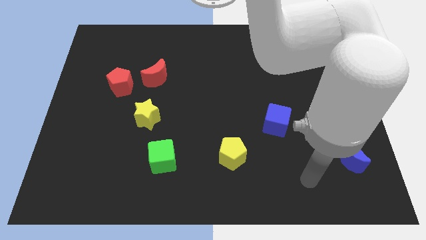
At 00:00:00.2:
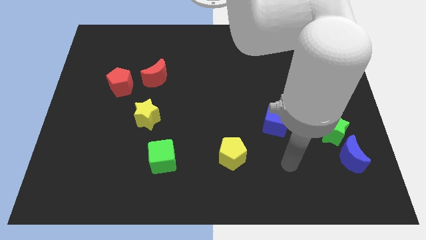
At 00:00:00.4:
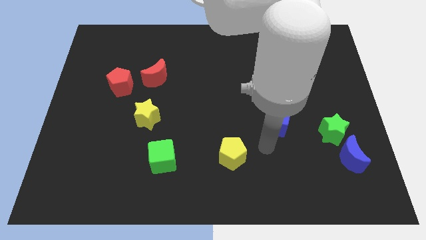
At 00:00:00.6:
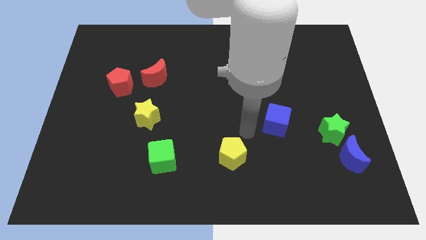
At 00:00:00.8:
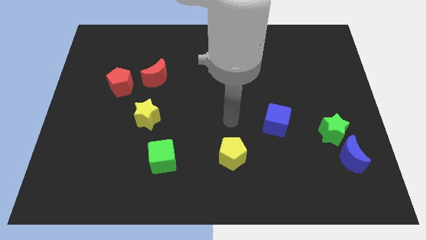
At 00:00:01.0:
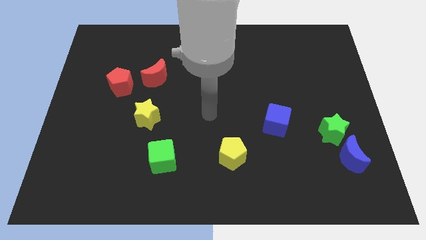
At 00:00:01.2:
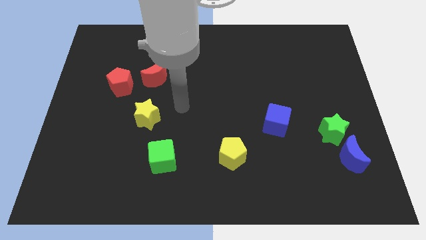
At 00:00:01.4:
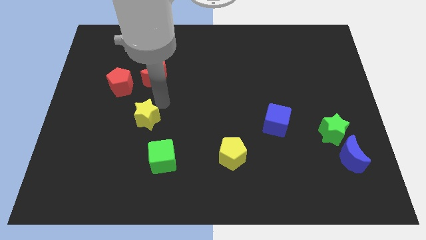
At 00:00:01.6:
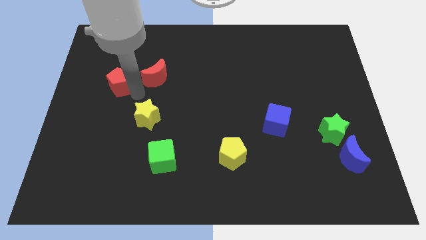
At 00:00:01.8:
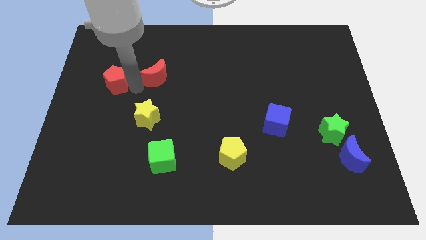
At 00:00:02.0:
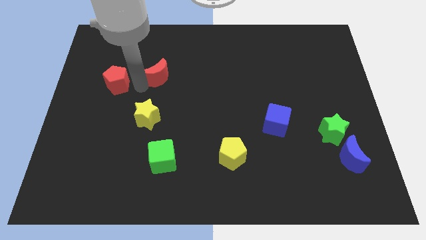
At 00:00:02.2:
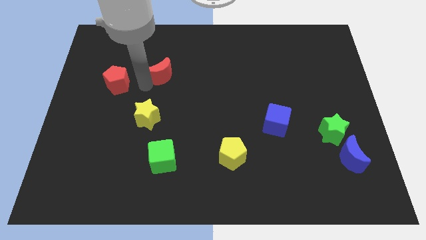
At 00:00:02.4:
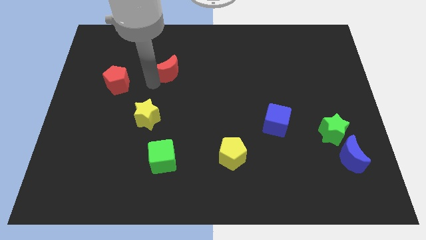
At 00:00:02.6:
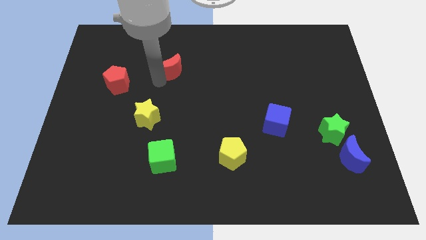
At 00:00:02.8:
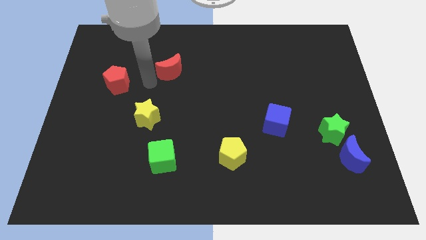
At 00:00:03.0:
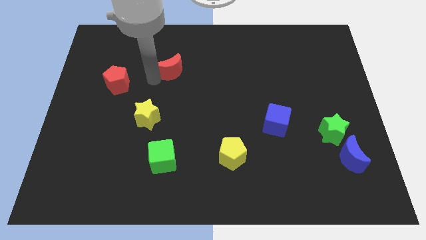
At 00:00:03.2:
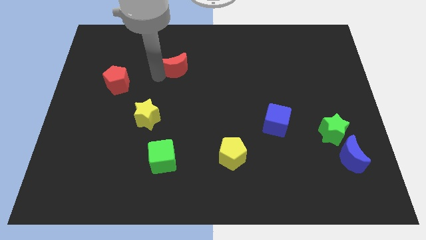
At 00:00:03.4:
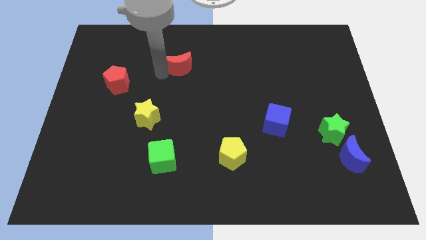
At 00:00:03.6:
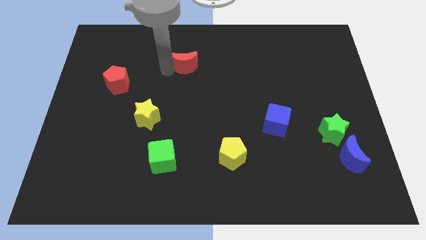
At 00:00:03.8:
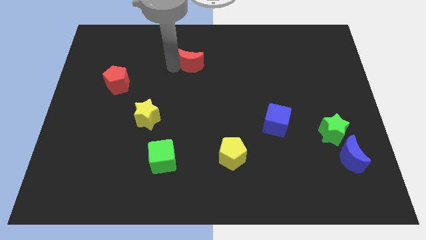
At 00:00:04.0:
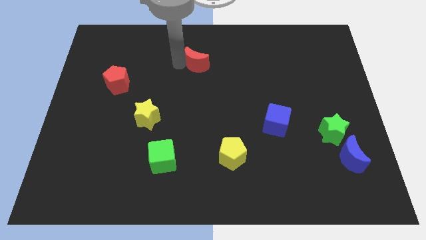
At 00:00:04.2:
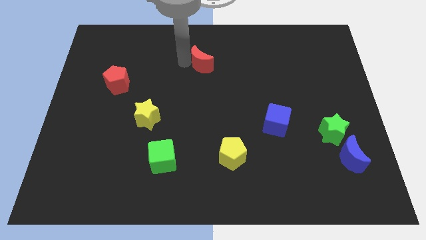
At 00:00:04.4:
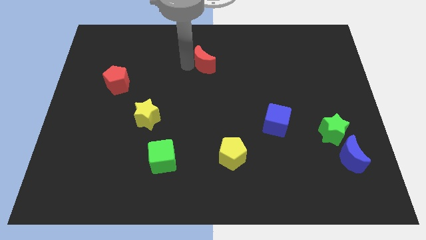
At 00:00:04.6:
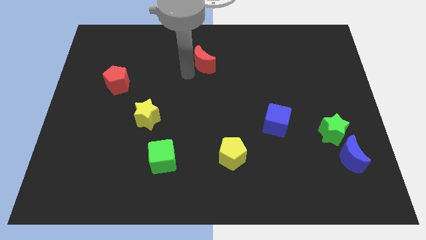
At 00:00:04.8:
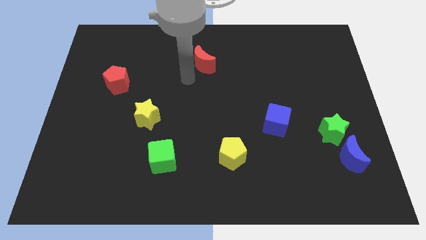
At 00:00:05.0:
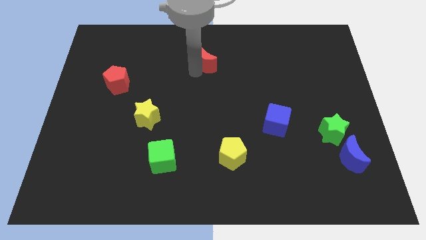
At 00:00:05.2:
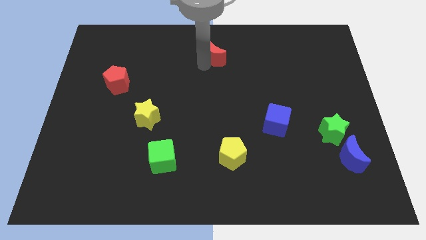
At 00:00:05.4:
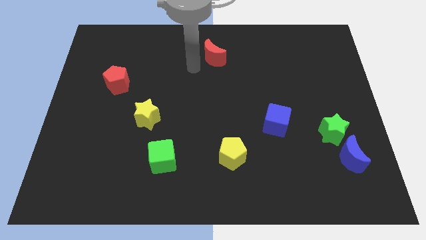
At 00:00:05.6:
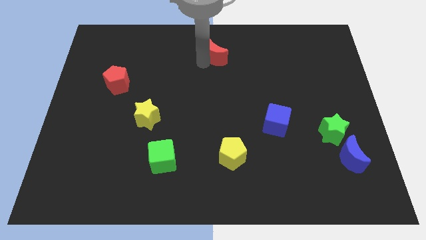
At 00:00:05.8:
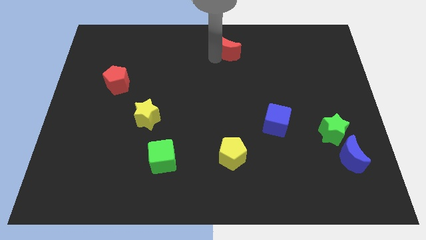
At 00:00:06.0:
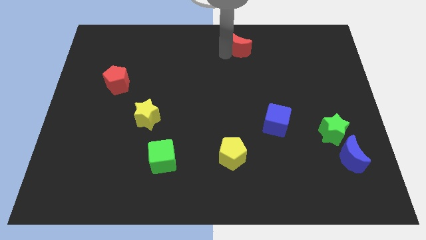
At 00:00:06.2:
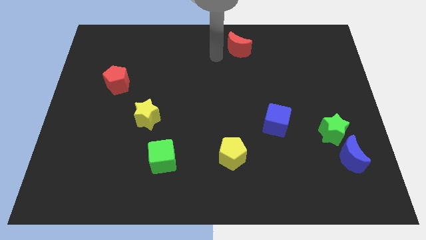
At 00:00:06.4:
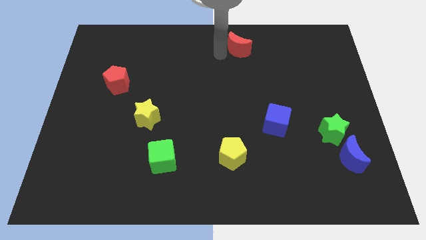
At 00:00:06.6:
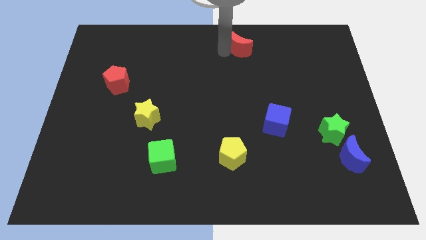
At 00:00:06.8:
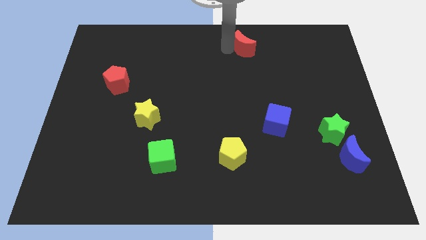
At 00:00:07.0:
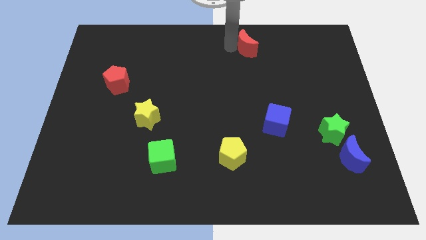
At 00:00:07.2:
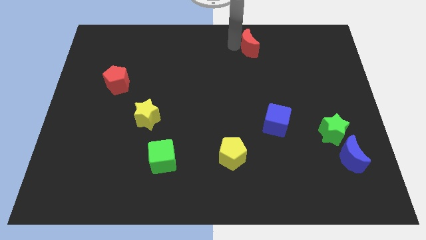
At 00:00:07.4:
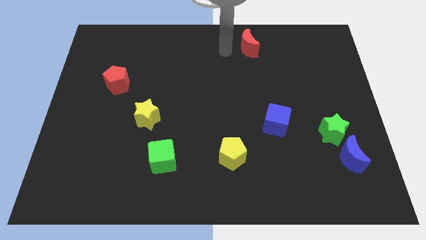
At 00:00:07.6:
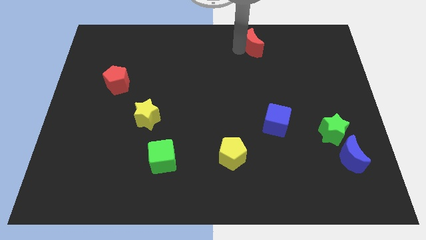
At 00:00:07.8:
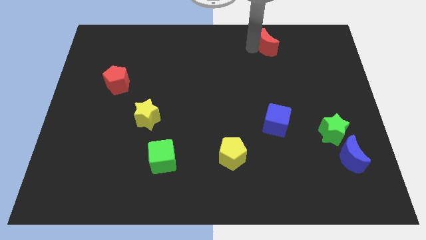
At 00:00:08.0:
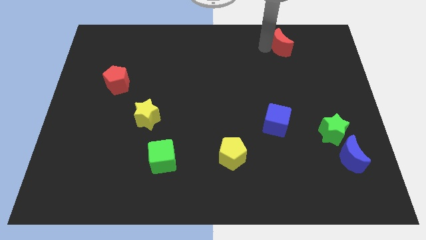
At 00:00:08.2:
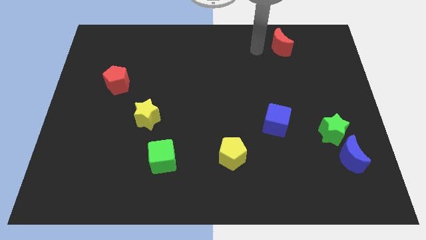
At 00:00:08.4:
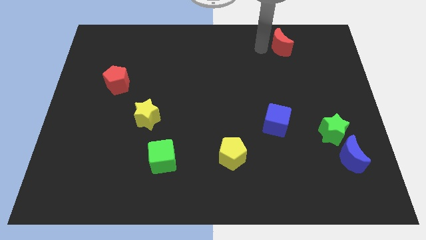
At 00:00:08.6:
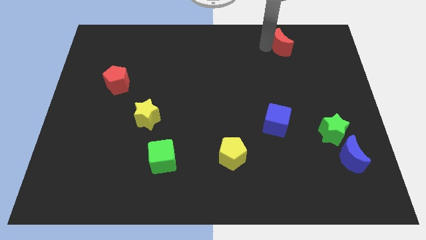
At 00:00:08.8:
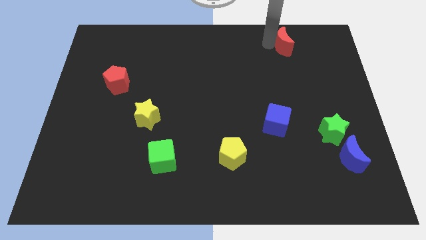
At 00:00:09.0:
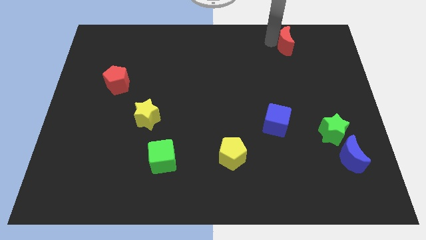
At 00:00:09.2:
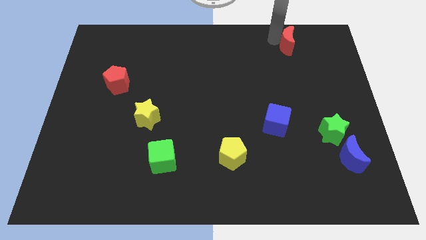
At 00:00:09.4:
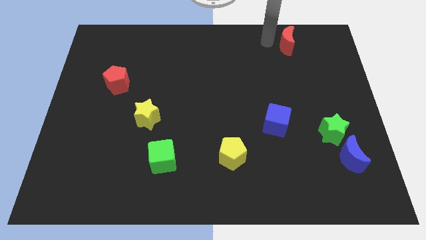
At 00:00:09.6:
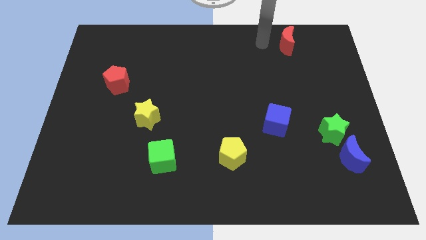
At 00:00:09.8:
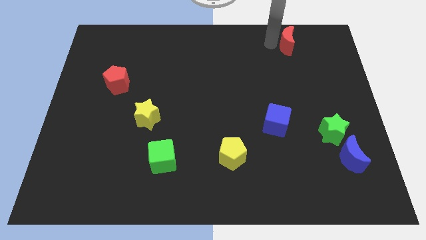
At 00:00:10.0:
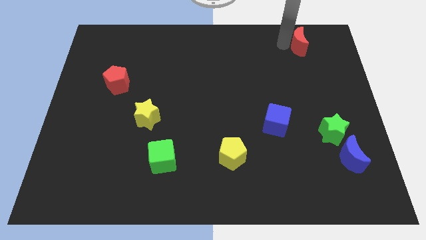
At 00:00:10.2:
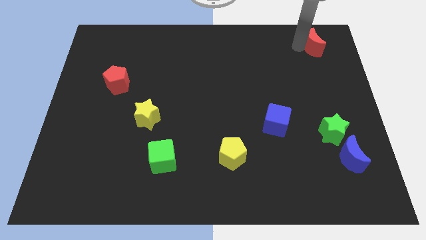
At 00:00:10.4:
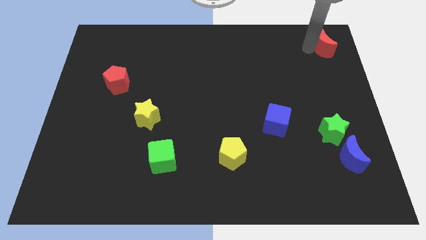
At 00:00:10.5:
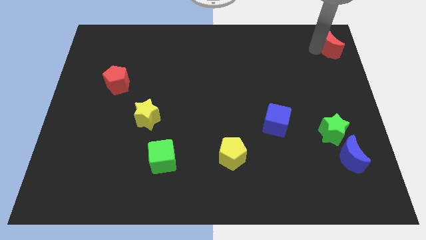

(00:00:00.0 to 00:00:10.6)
move the red moon to the top right of the board
